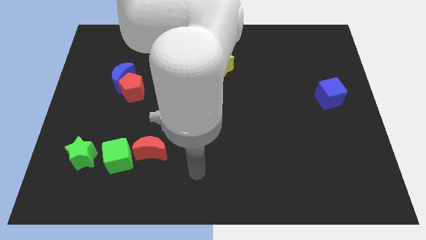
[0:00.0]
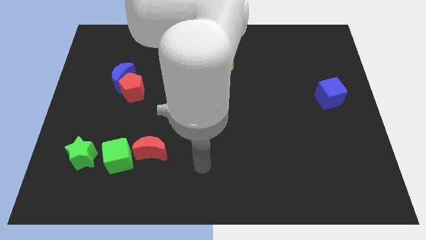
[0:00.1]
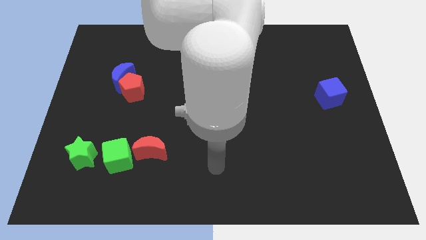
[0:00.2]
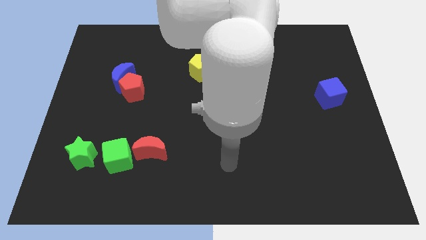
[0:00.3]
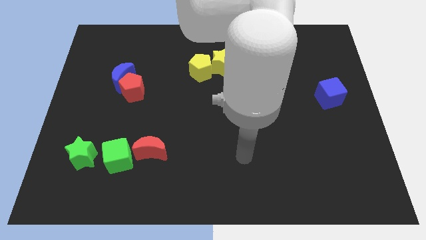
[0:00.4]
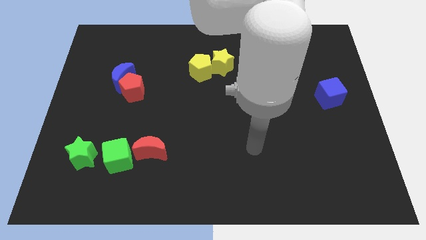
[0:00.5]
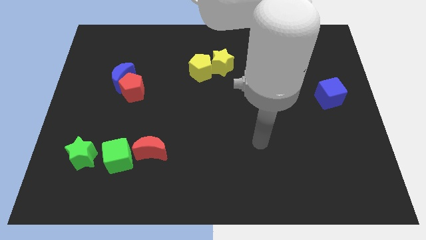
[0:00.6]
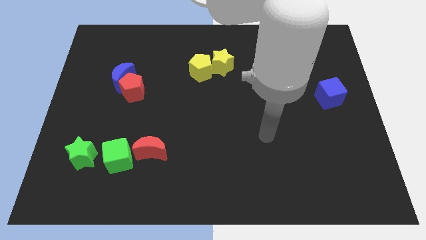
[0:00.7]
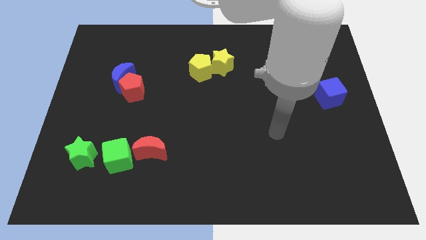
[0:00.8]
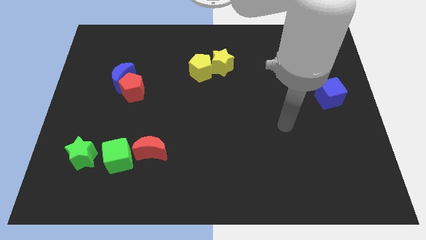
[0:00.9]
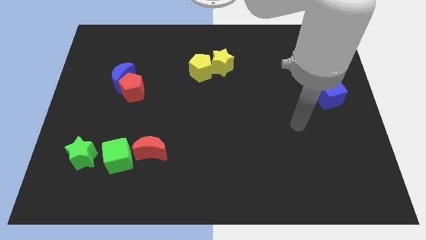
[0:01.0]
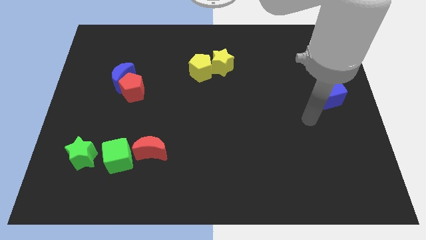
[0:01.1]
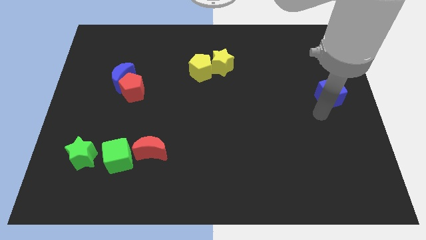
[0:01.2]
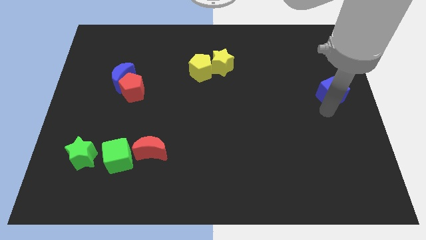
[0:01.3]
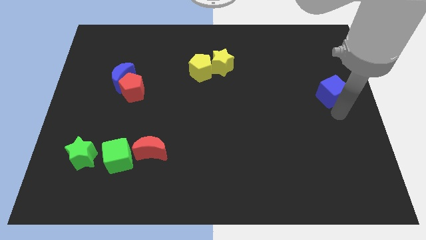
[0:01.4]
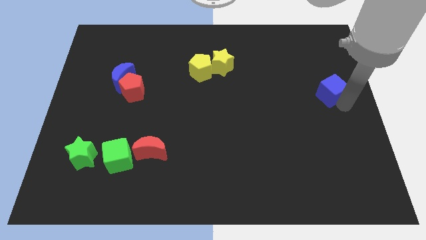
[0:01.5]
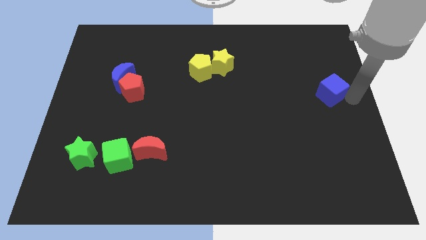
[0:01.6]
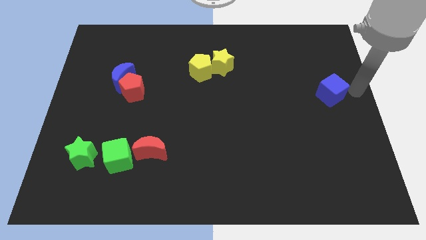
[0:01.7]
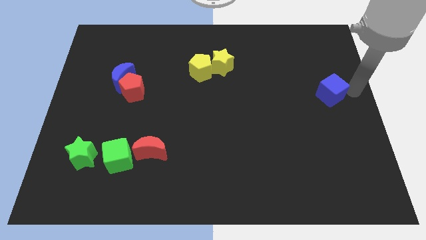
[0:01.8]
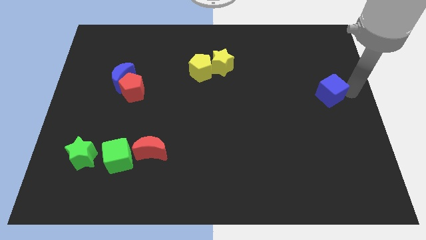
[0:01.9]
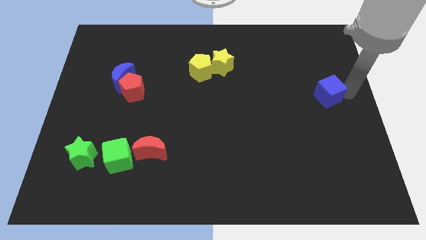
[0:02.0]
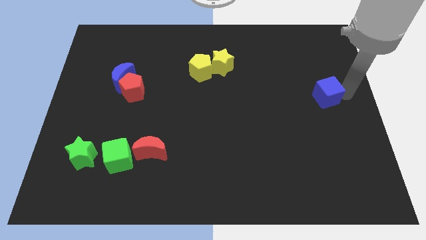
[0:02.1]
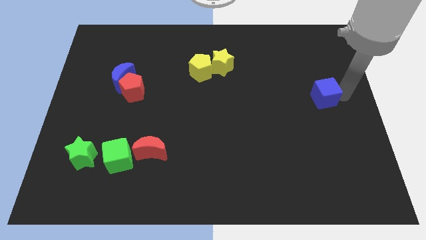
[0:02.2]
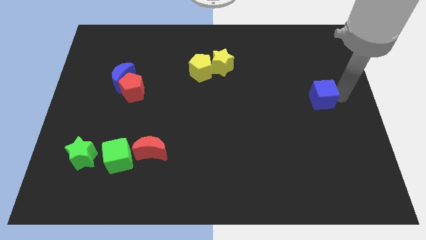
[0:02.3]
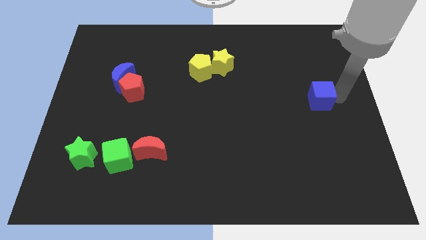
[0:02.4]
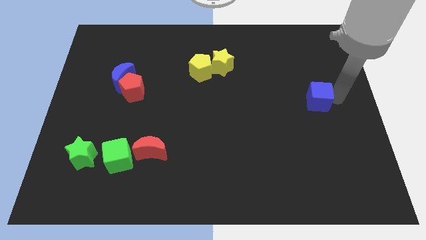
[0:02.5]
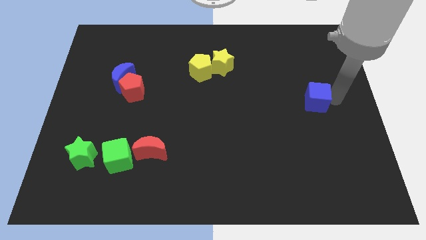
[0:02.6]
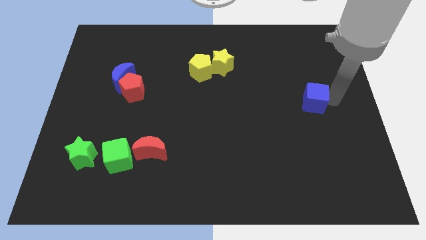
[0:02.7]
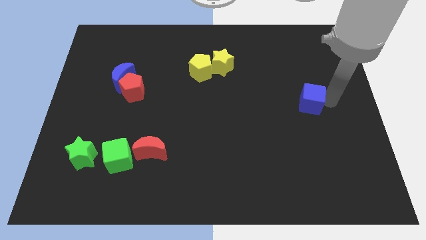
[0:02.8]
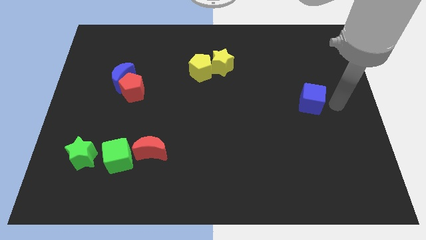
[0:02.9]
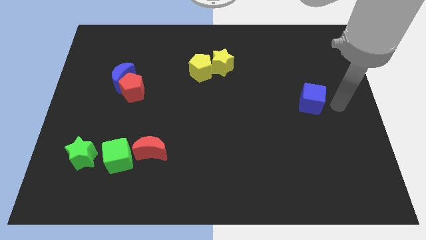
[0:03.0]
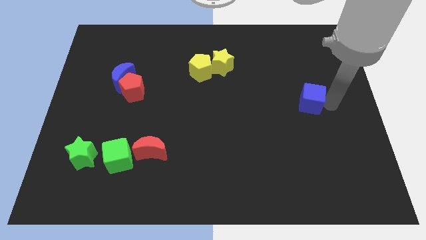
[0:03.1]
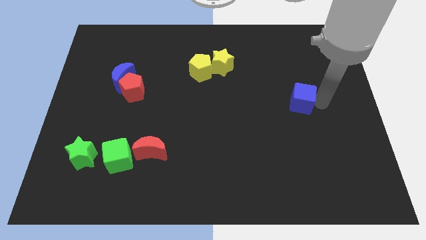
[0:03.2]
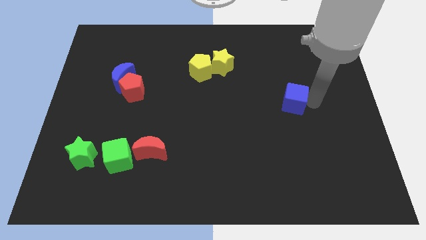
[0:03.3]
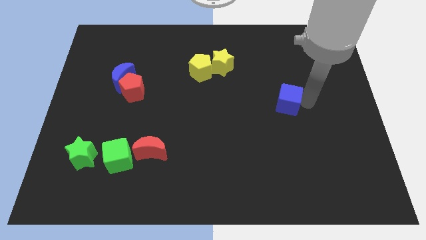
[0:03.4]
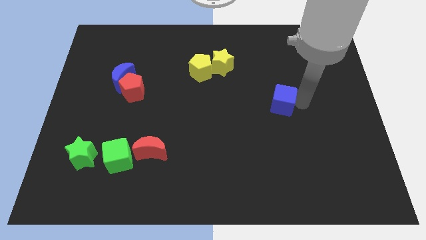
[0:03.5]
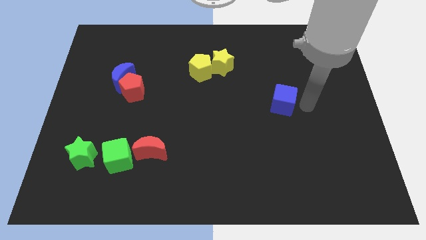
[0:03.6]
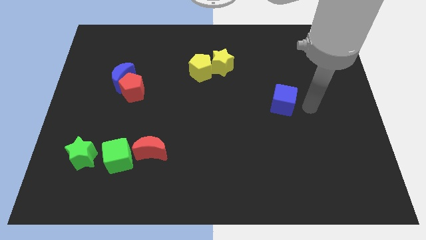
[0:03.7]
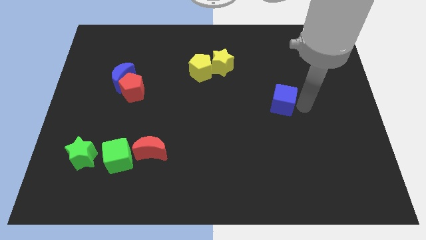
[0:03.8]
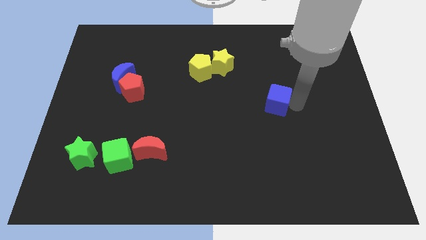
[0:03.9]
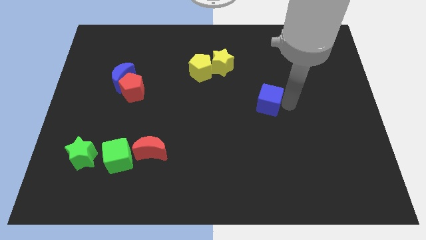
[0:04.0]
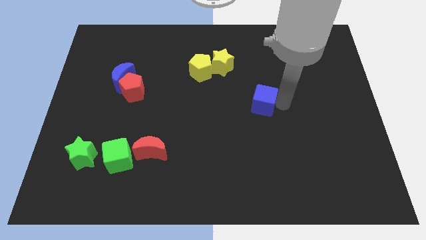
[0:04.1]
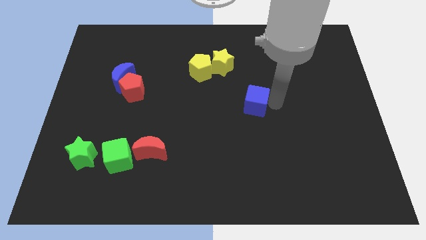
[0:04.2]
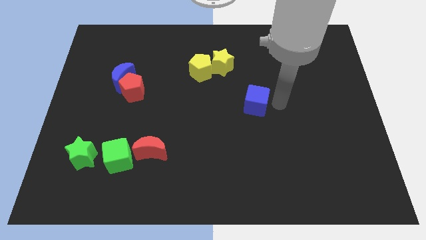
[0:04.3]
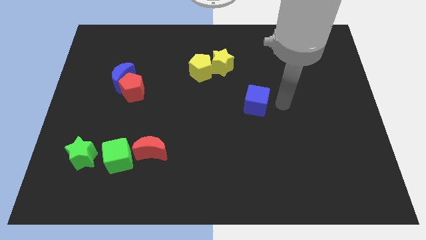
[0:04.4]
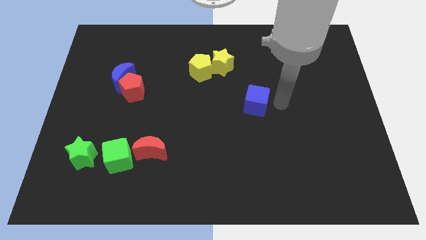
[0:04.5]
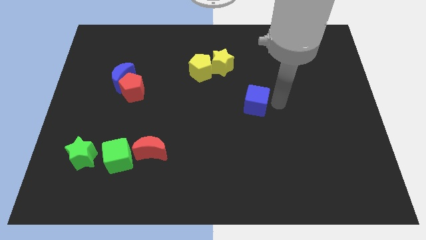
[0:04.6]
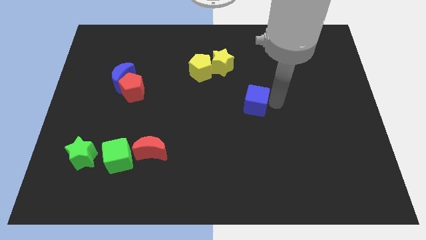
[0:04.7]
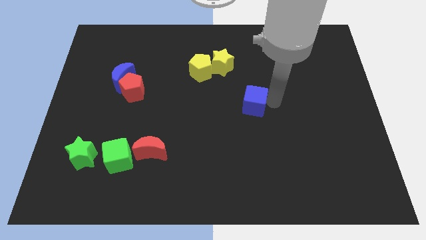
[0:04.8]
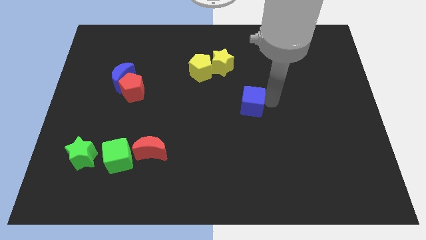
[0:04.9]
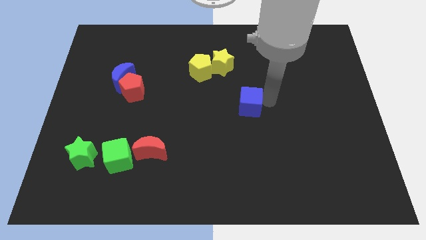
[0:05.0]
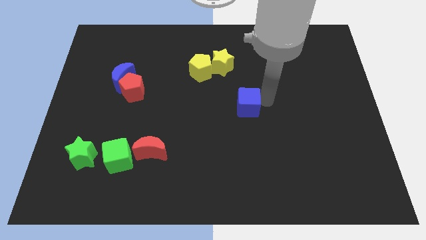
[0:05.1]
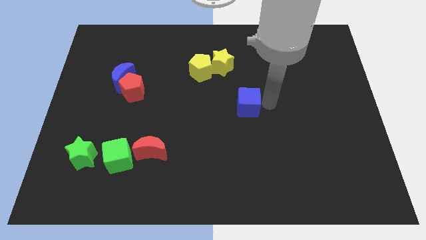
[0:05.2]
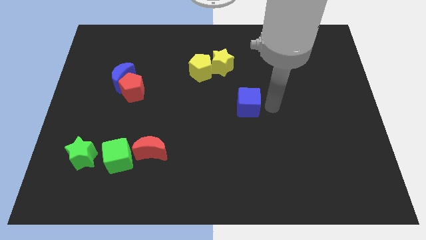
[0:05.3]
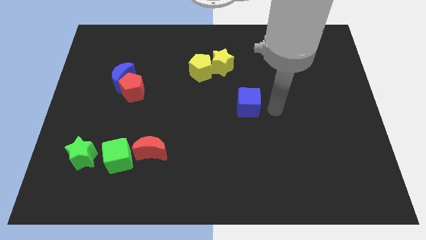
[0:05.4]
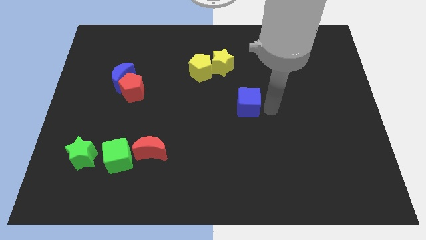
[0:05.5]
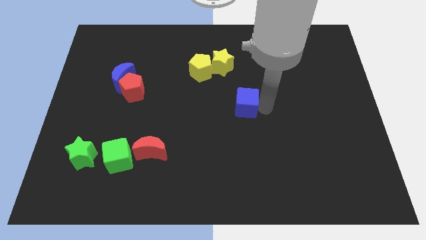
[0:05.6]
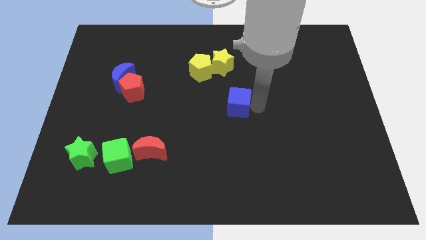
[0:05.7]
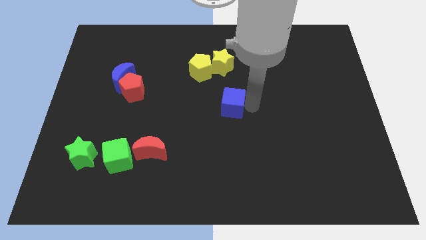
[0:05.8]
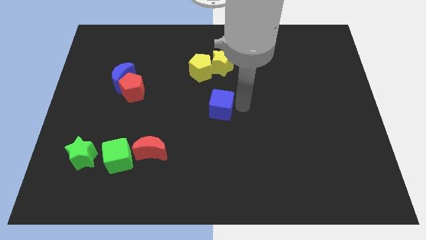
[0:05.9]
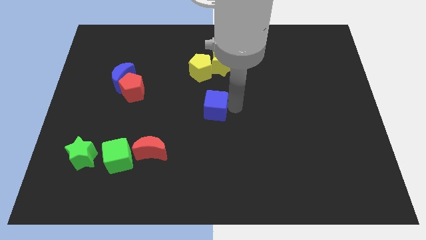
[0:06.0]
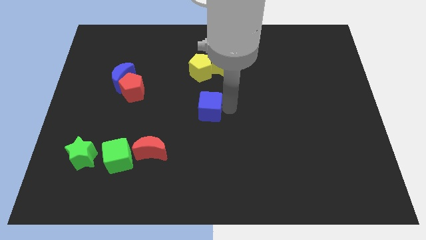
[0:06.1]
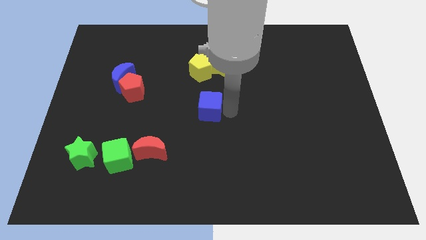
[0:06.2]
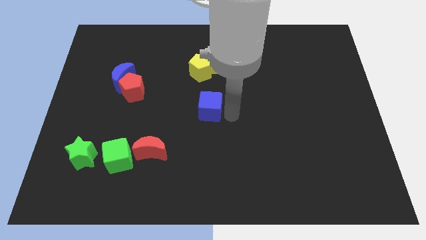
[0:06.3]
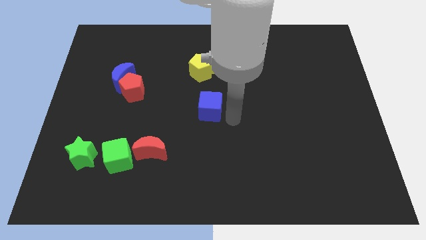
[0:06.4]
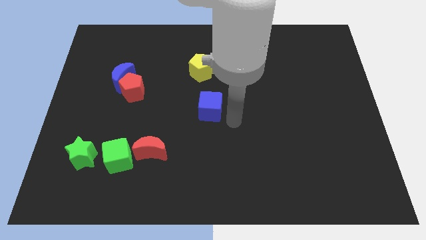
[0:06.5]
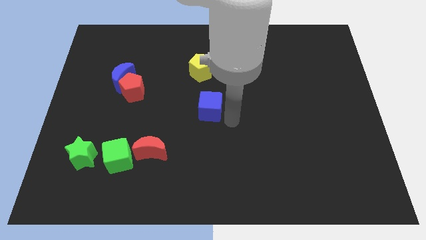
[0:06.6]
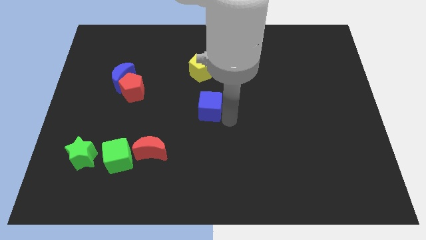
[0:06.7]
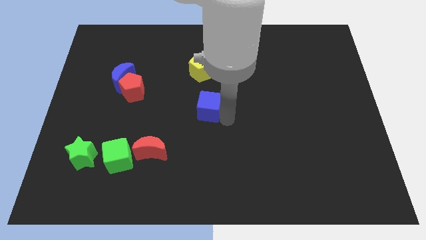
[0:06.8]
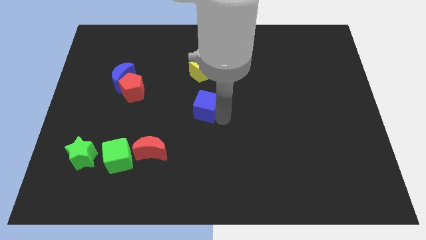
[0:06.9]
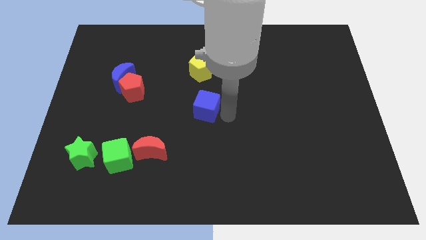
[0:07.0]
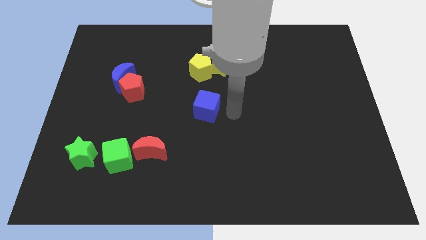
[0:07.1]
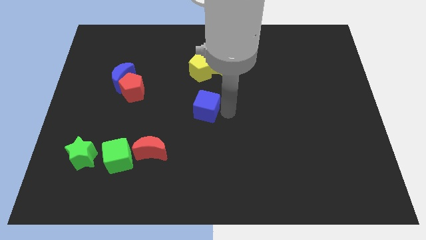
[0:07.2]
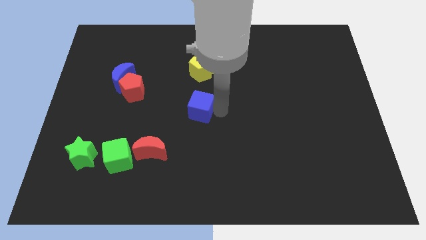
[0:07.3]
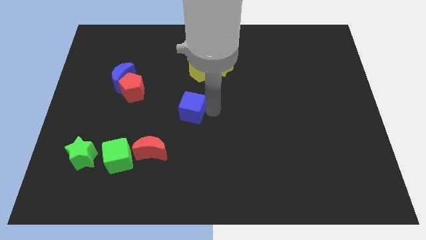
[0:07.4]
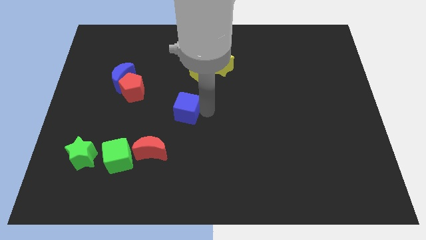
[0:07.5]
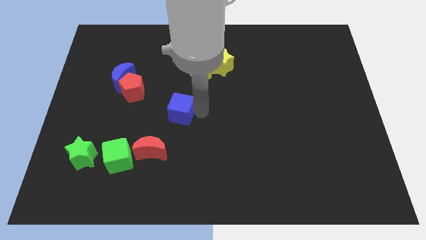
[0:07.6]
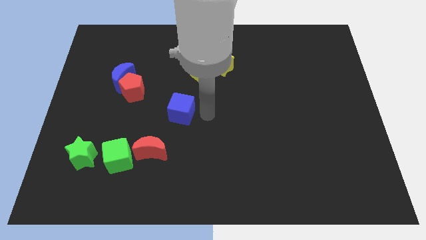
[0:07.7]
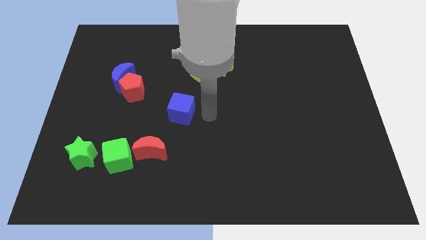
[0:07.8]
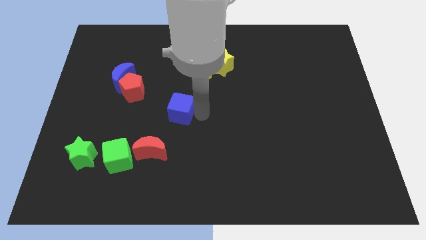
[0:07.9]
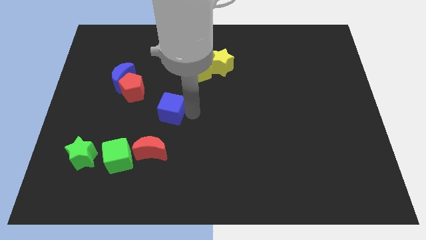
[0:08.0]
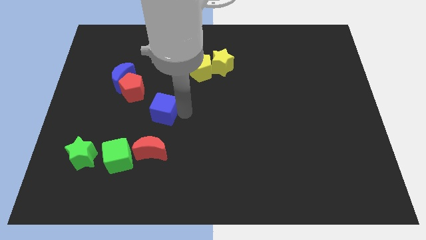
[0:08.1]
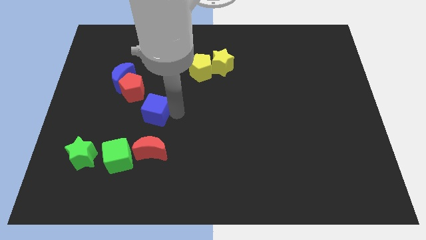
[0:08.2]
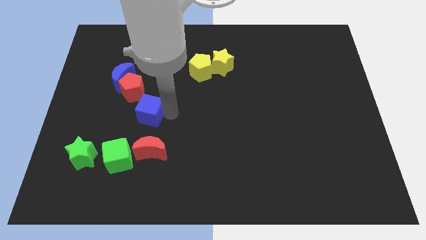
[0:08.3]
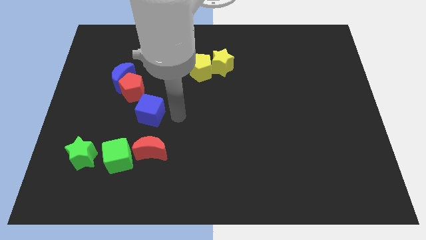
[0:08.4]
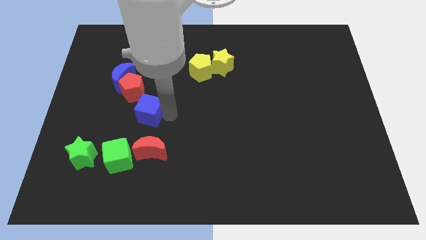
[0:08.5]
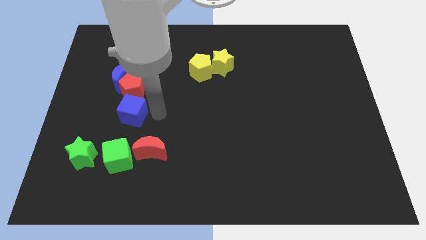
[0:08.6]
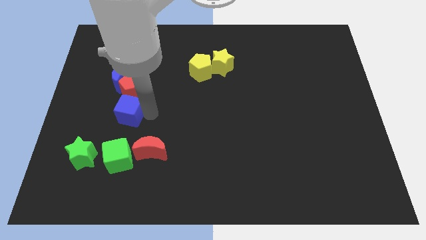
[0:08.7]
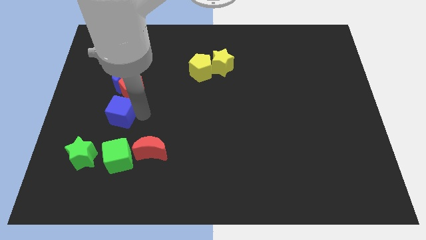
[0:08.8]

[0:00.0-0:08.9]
push the blue cube to the bottom left side of the red pentagon
